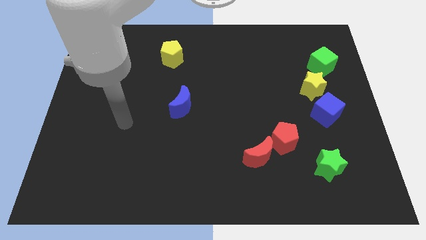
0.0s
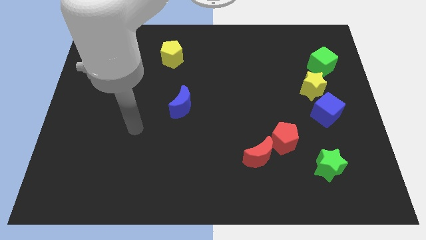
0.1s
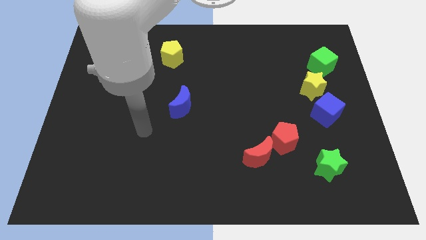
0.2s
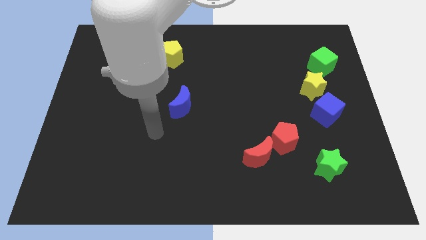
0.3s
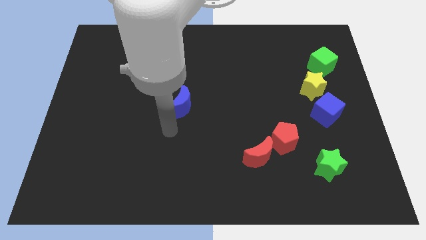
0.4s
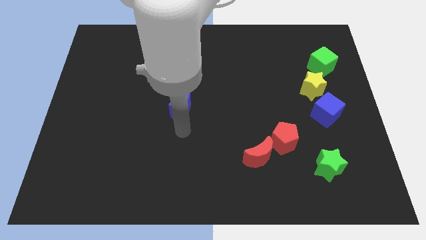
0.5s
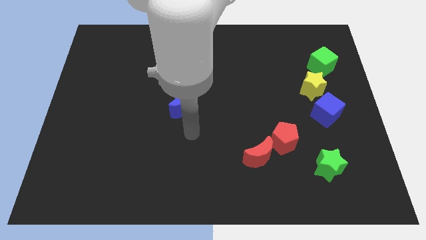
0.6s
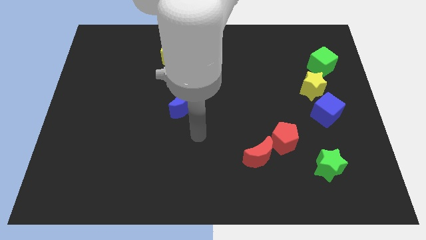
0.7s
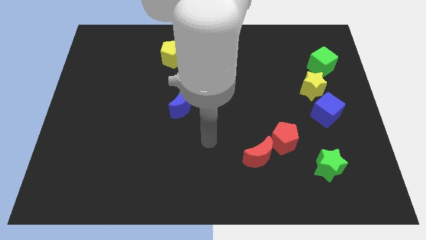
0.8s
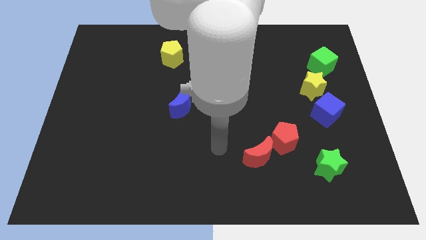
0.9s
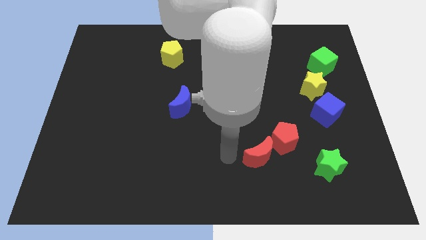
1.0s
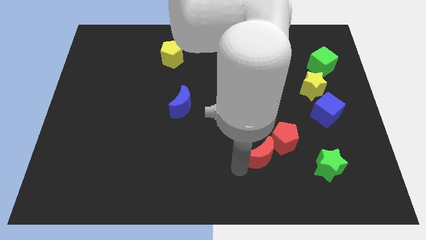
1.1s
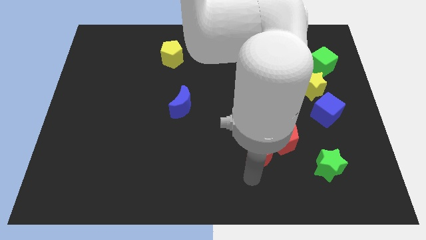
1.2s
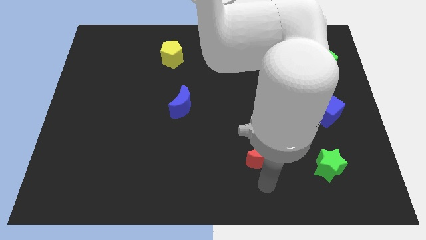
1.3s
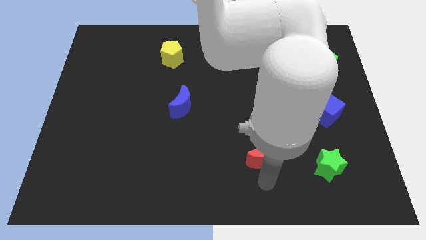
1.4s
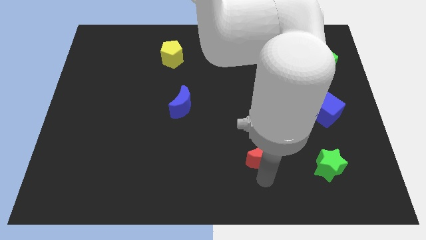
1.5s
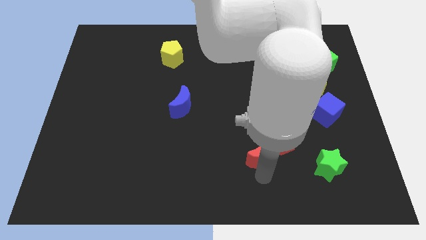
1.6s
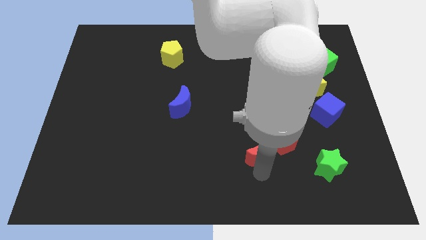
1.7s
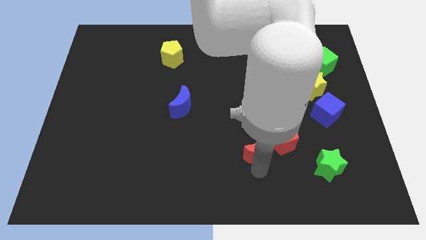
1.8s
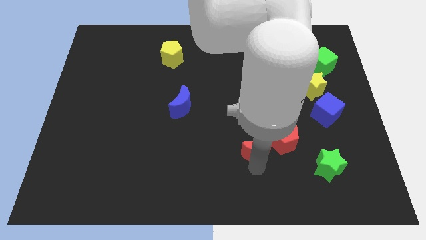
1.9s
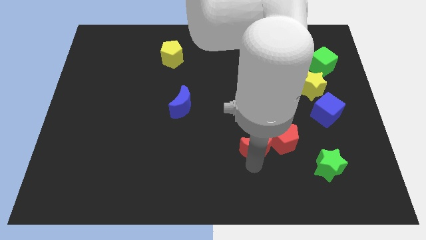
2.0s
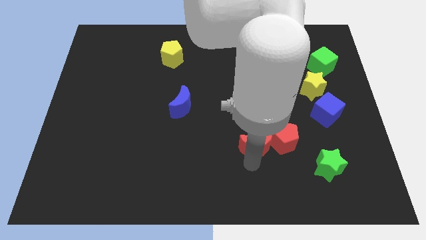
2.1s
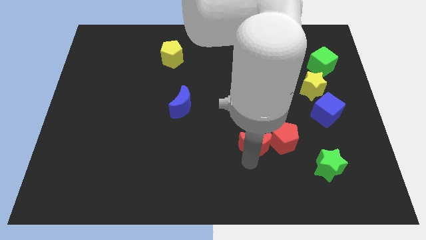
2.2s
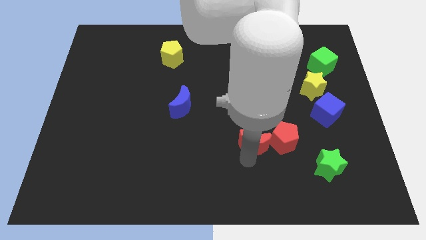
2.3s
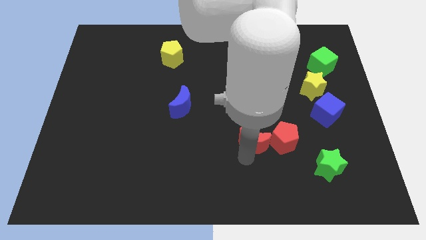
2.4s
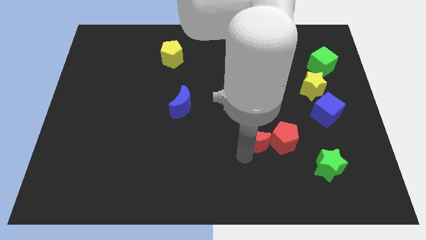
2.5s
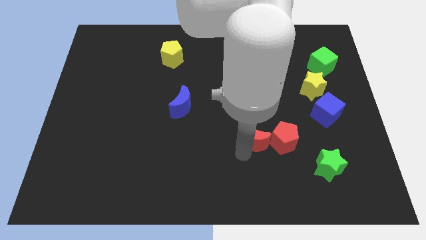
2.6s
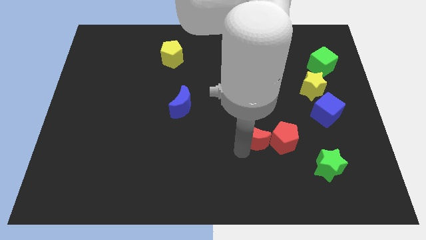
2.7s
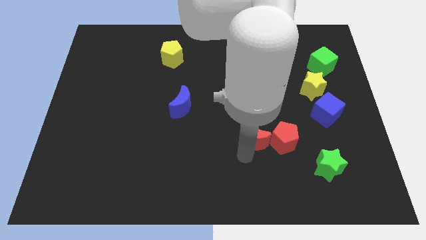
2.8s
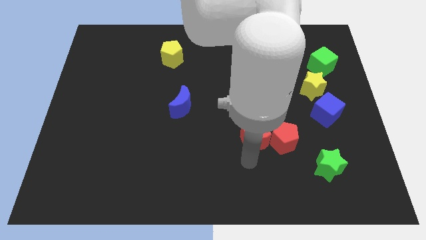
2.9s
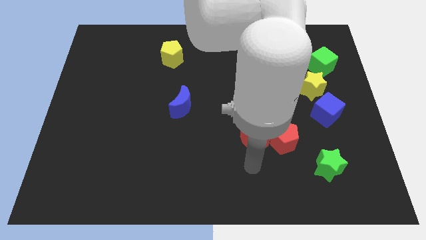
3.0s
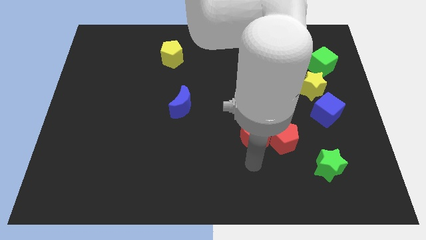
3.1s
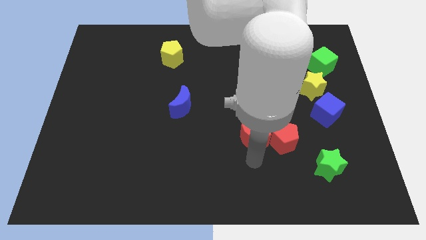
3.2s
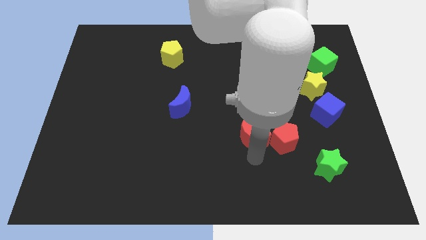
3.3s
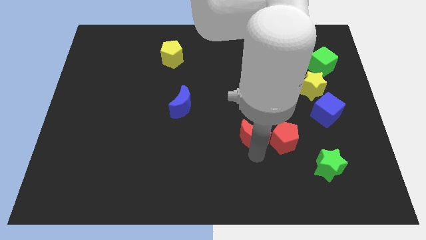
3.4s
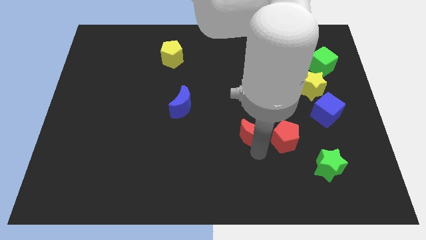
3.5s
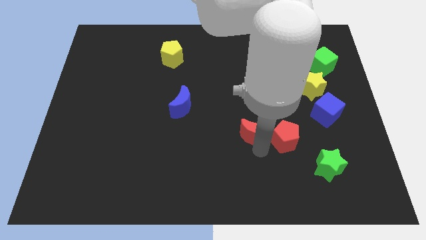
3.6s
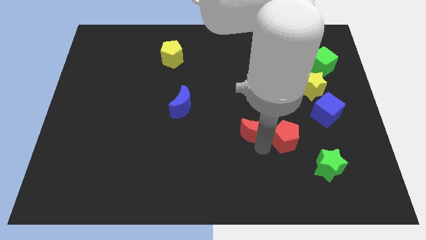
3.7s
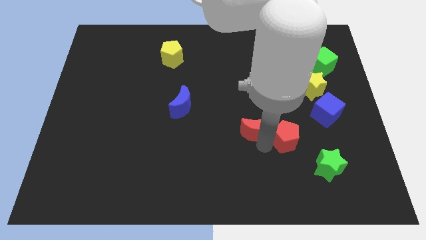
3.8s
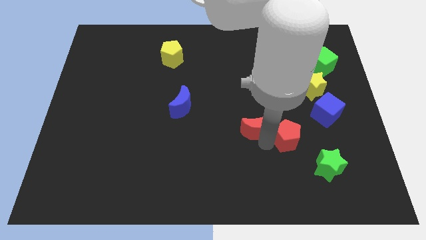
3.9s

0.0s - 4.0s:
slightly move the red moon up

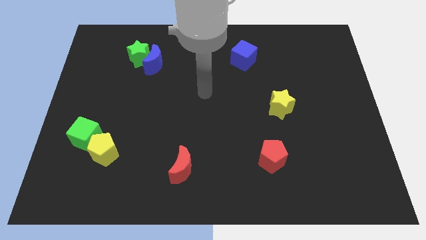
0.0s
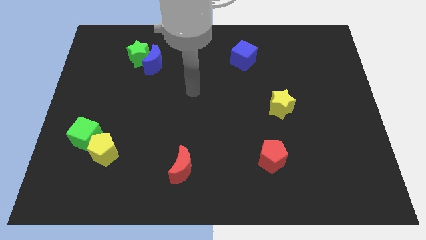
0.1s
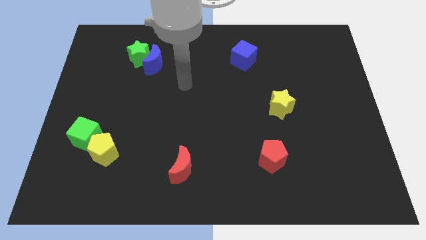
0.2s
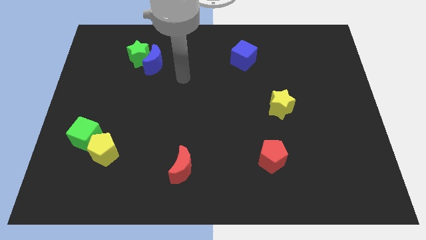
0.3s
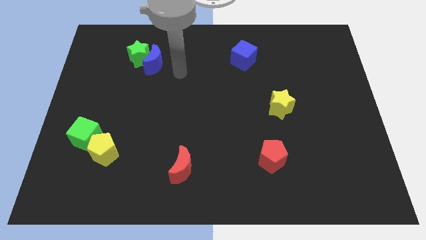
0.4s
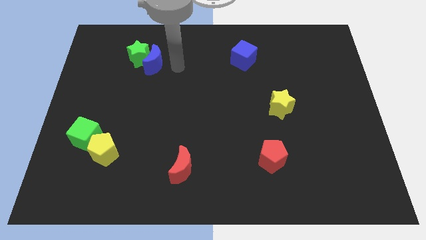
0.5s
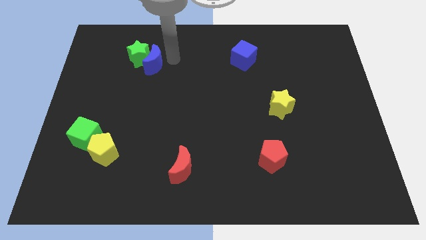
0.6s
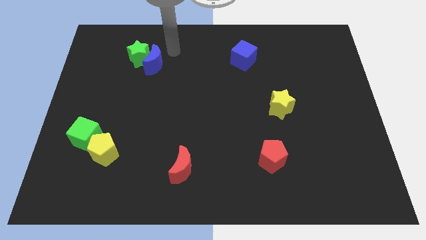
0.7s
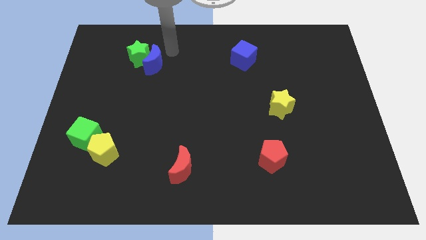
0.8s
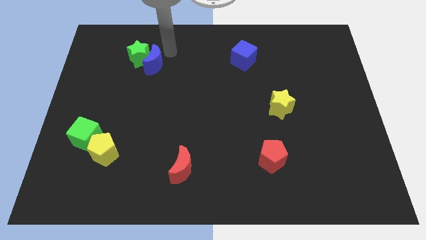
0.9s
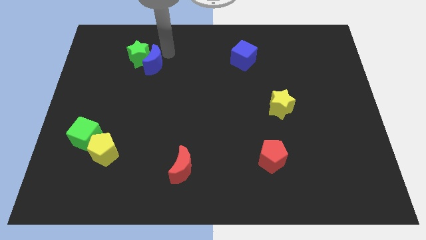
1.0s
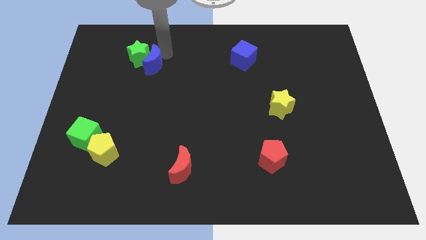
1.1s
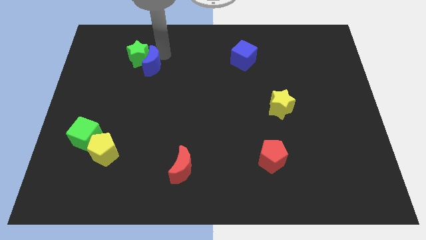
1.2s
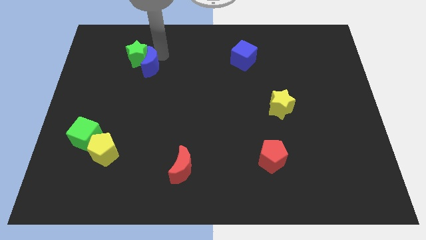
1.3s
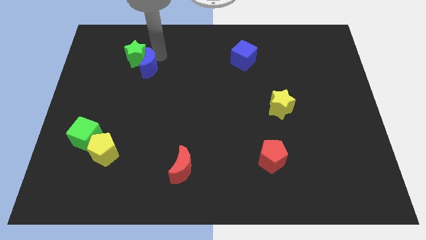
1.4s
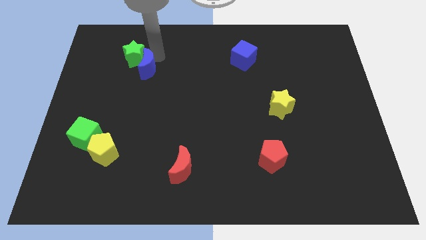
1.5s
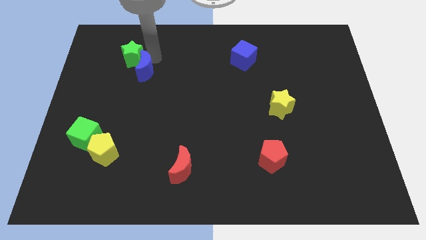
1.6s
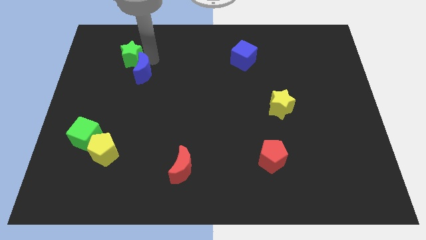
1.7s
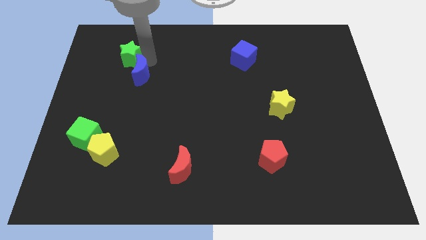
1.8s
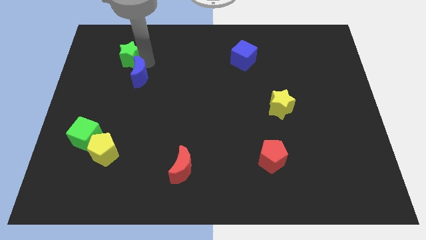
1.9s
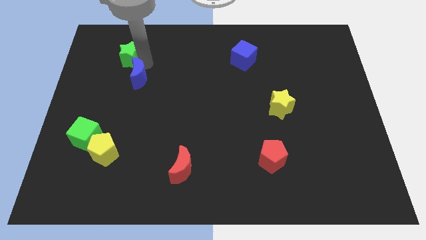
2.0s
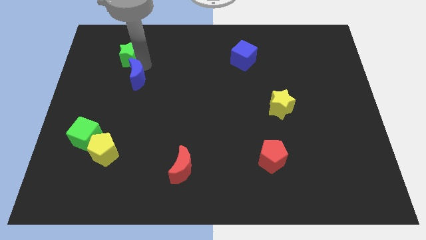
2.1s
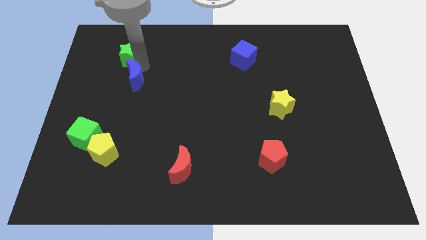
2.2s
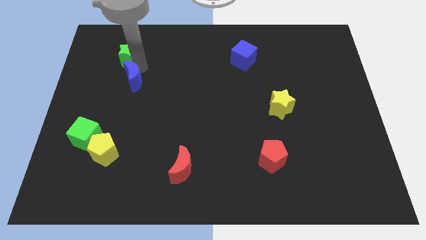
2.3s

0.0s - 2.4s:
slightly slide the blue moon downwards and to the left diagonally

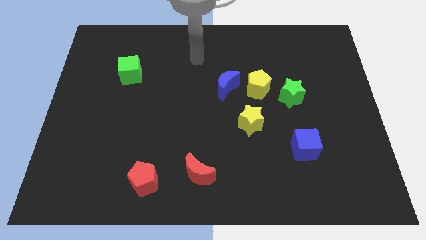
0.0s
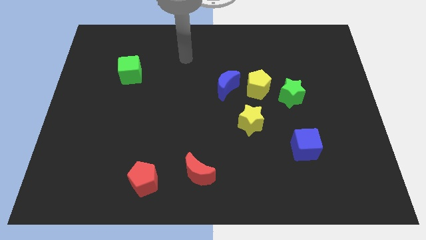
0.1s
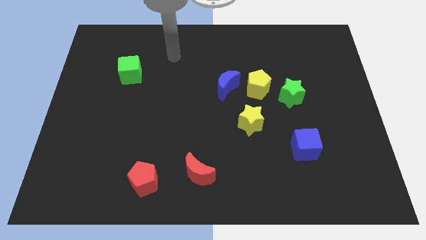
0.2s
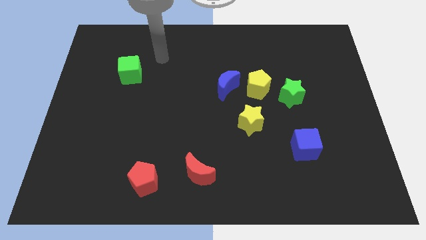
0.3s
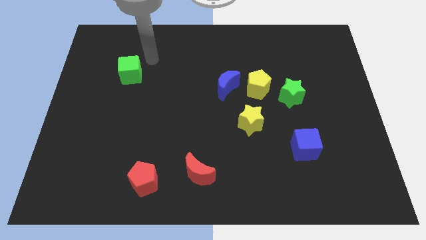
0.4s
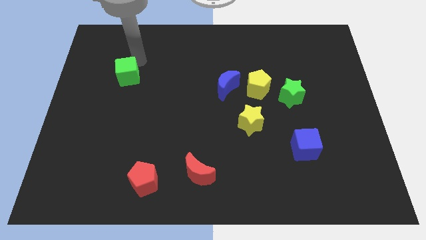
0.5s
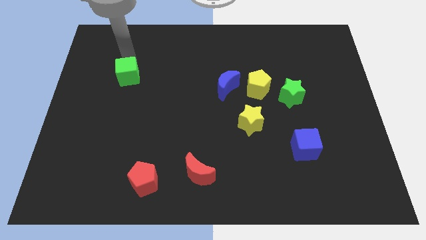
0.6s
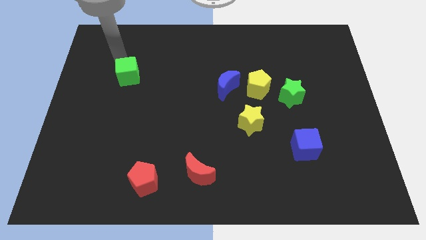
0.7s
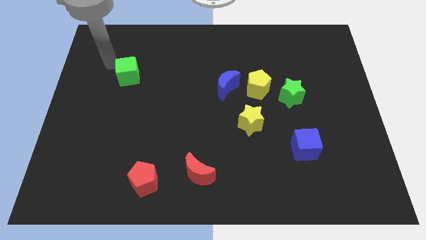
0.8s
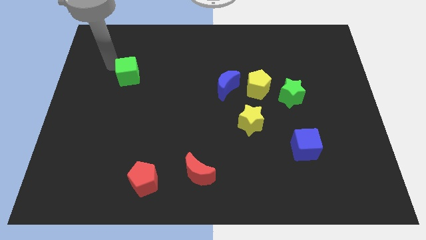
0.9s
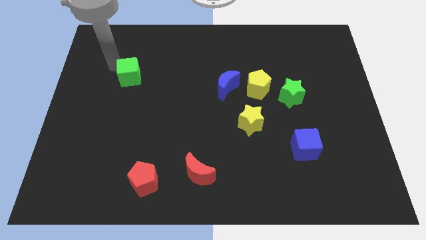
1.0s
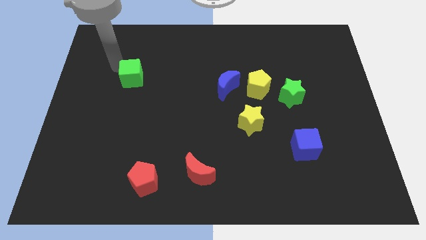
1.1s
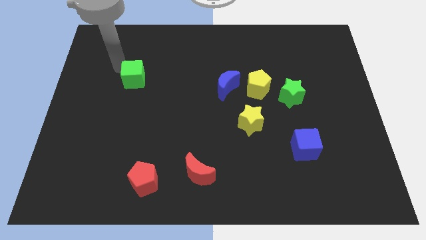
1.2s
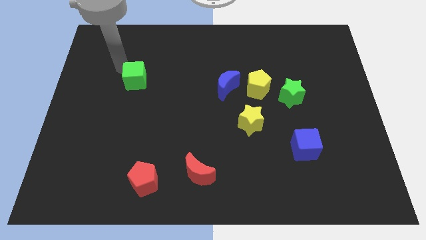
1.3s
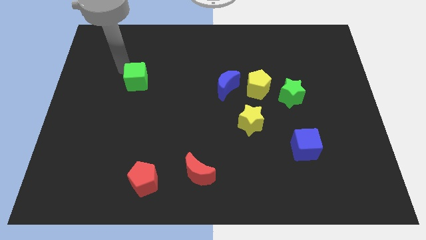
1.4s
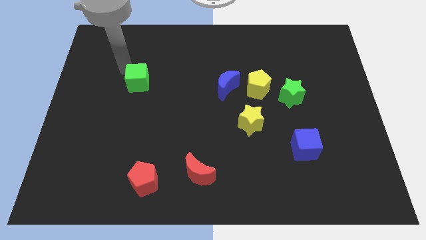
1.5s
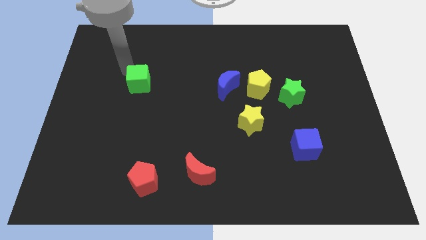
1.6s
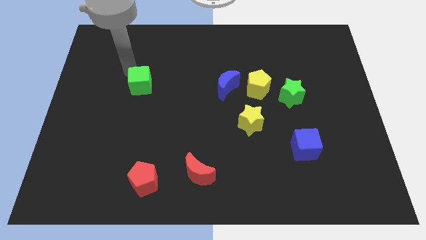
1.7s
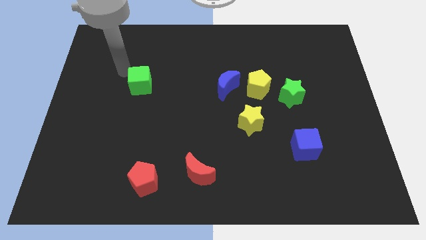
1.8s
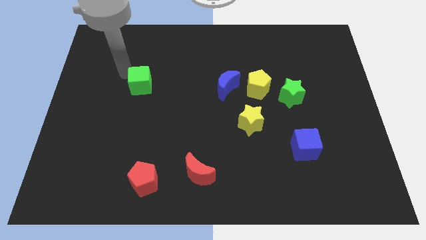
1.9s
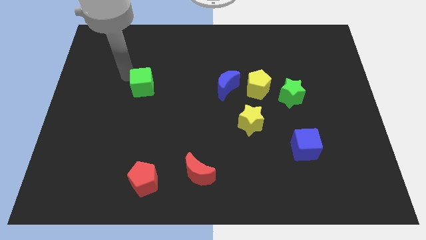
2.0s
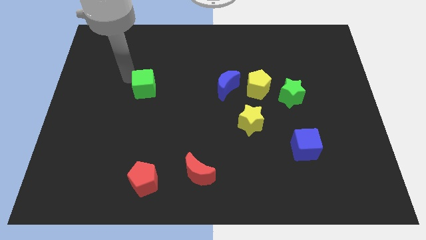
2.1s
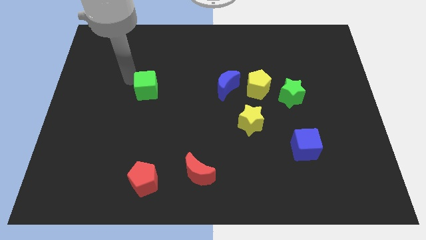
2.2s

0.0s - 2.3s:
slightly move the green cube diagonally down and right

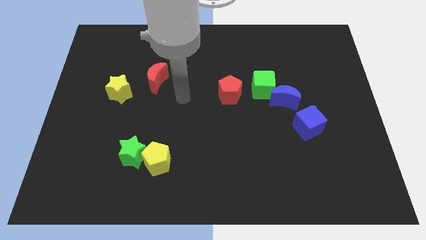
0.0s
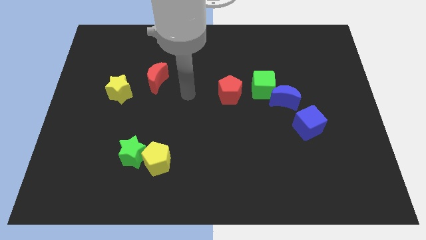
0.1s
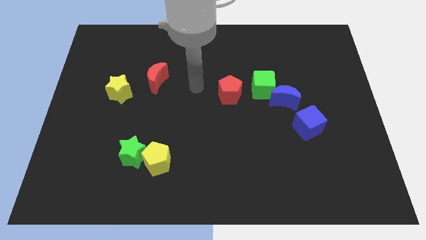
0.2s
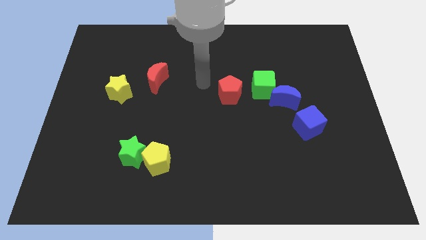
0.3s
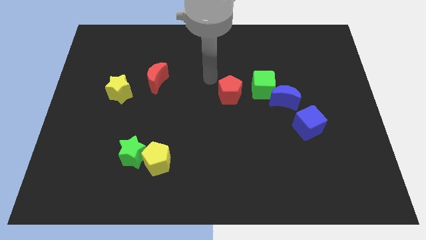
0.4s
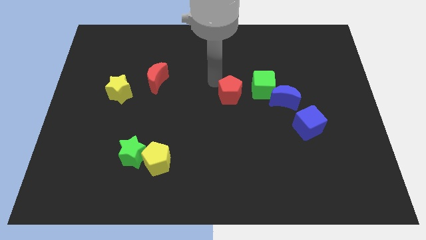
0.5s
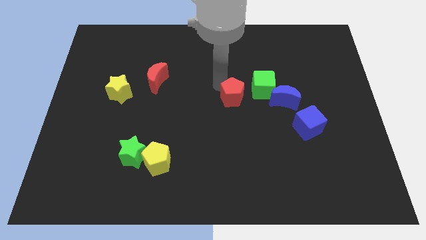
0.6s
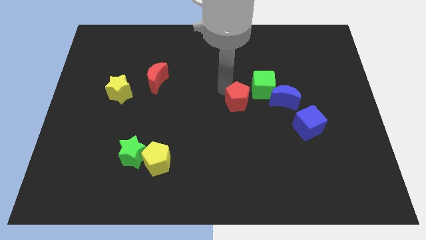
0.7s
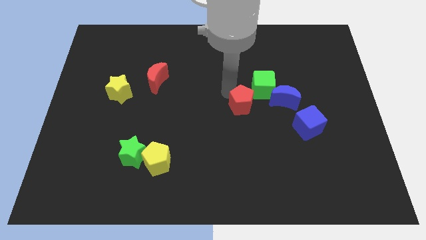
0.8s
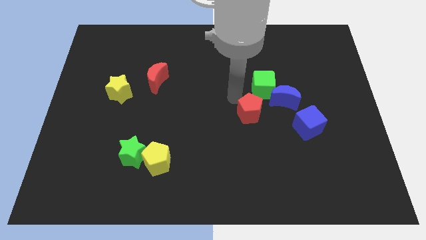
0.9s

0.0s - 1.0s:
slide the red pentagon downwards and right somewhat
